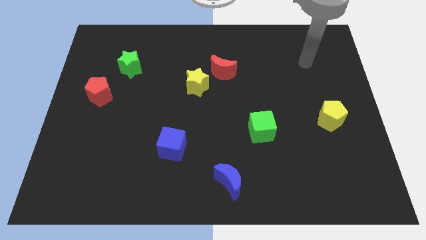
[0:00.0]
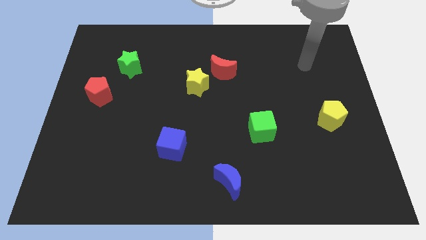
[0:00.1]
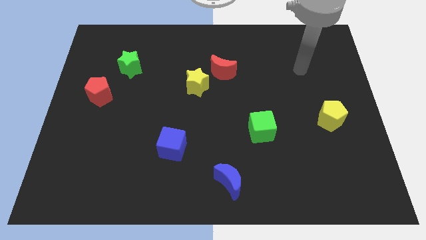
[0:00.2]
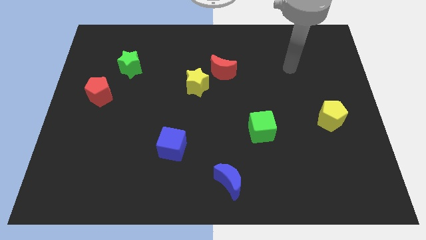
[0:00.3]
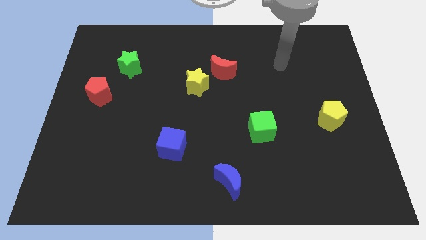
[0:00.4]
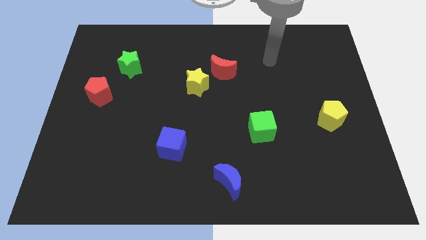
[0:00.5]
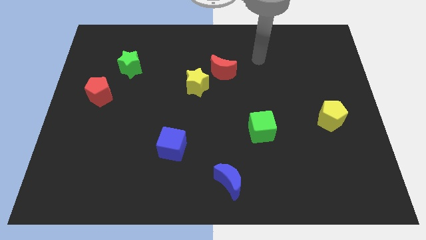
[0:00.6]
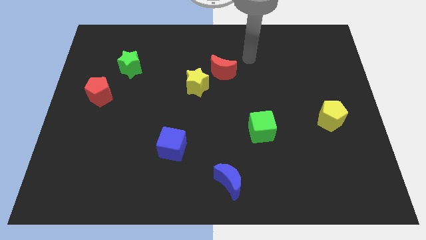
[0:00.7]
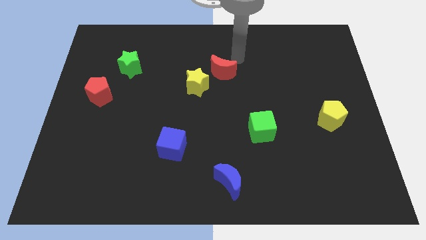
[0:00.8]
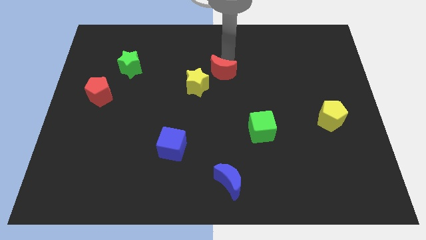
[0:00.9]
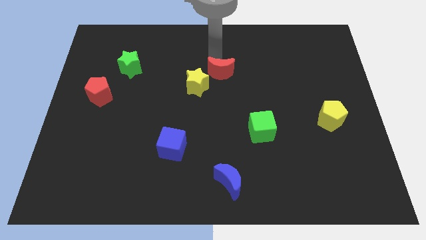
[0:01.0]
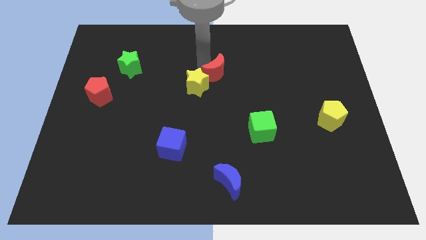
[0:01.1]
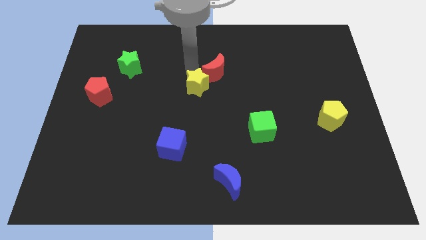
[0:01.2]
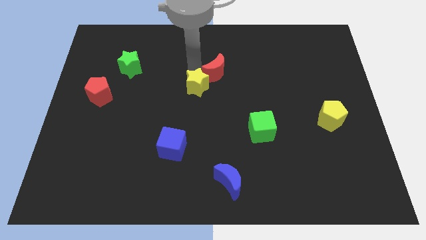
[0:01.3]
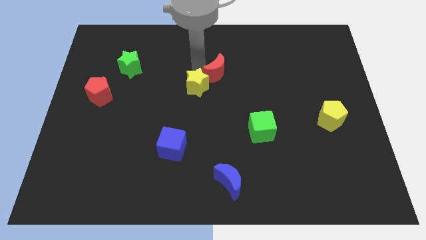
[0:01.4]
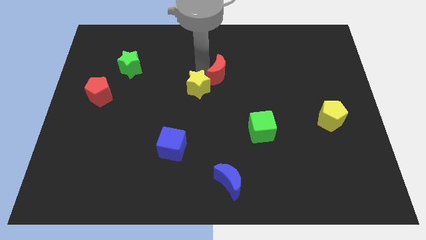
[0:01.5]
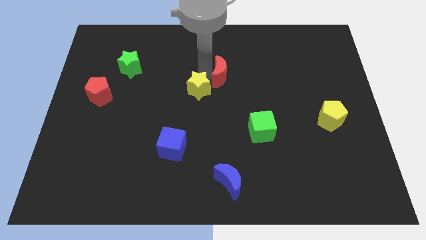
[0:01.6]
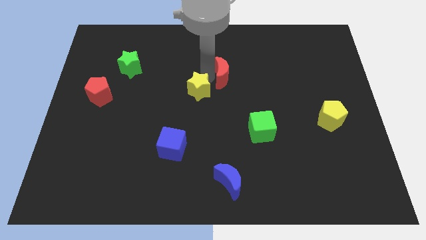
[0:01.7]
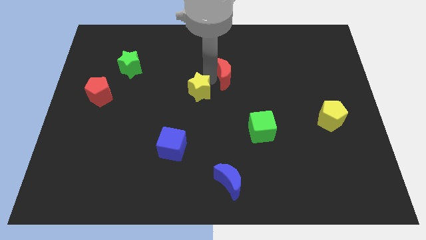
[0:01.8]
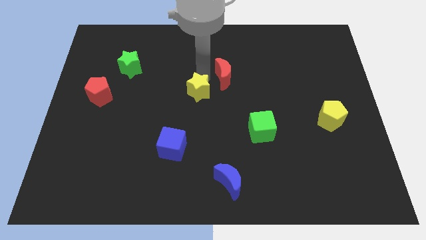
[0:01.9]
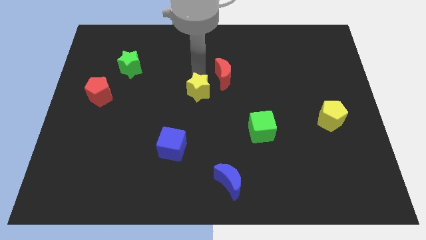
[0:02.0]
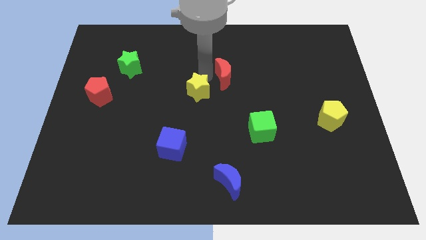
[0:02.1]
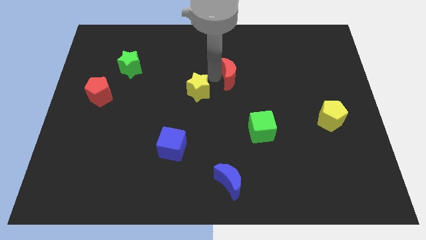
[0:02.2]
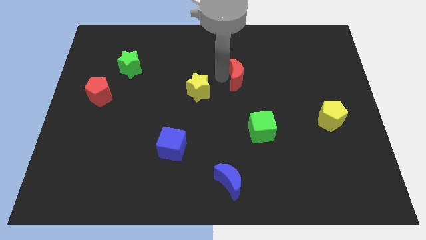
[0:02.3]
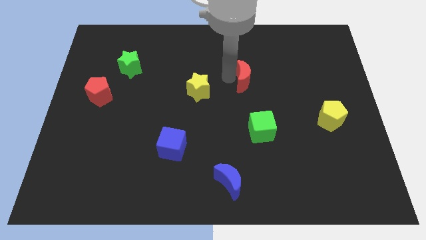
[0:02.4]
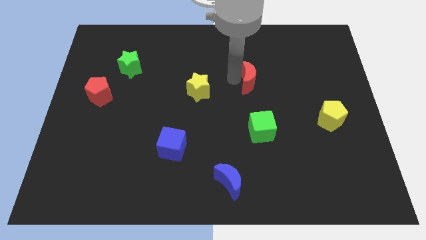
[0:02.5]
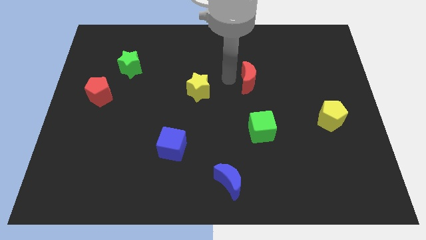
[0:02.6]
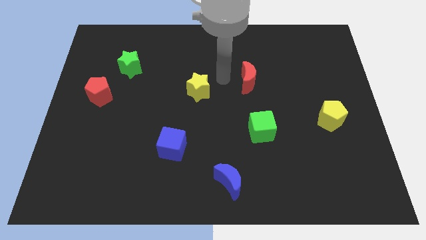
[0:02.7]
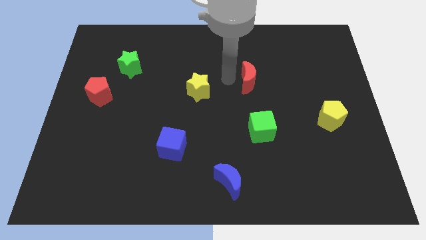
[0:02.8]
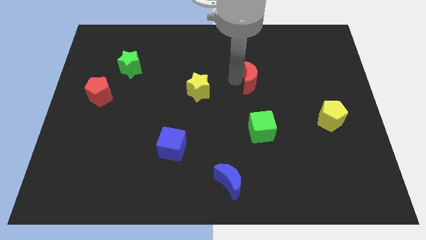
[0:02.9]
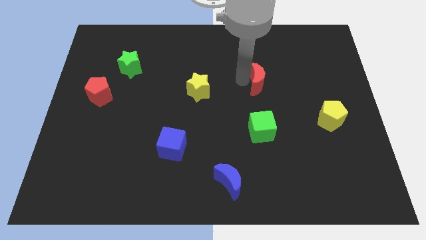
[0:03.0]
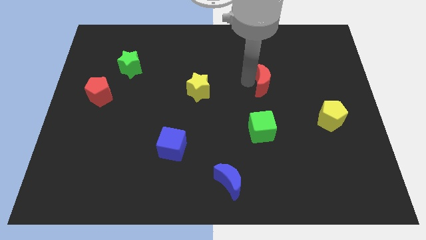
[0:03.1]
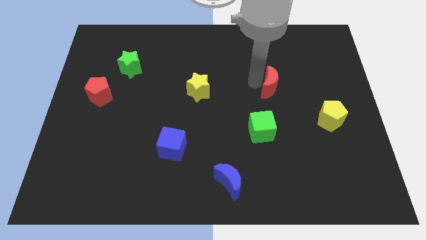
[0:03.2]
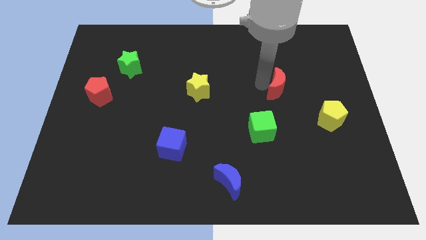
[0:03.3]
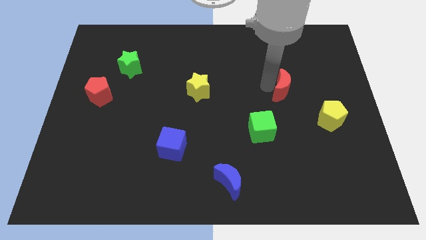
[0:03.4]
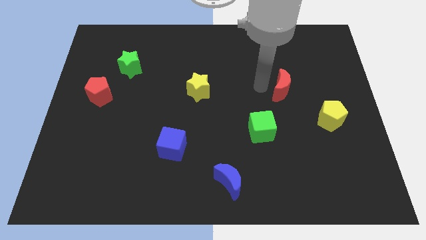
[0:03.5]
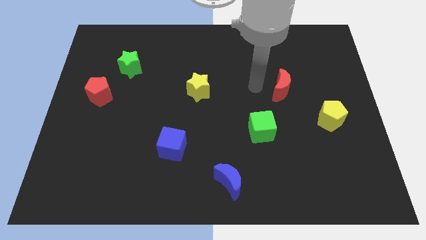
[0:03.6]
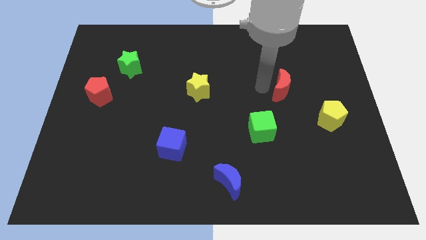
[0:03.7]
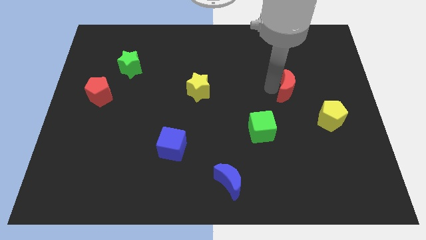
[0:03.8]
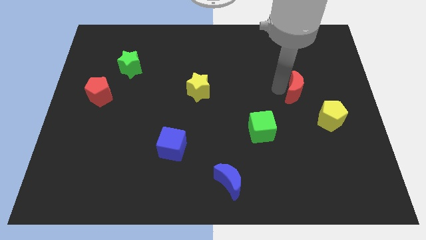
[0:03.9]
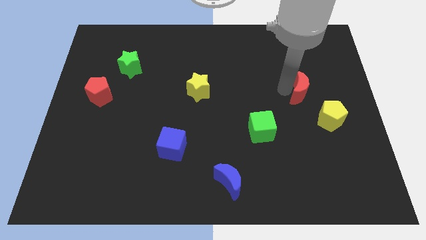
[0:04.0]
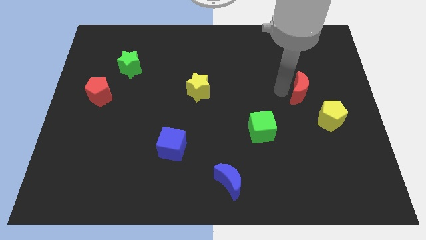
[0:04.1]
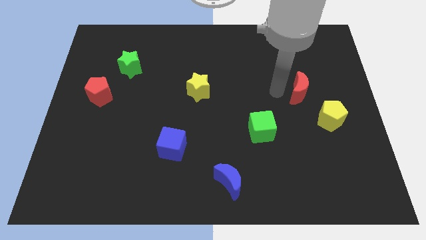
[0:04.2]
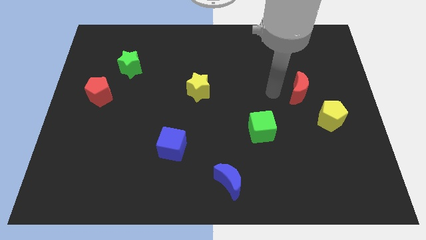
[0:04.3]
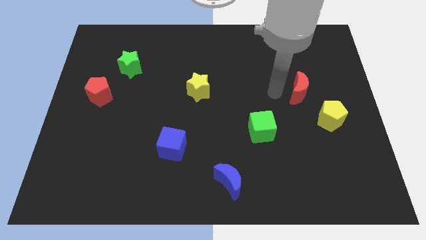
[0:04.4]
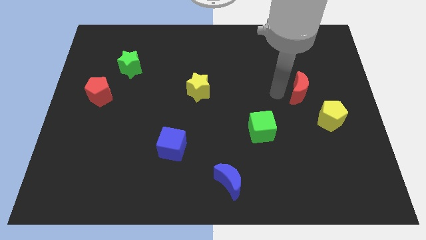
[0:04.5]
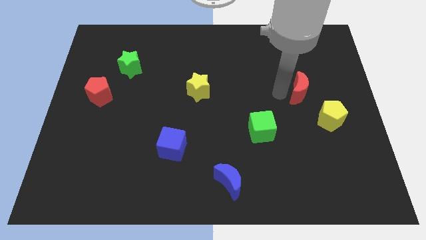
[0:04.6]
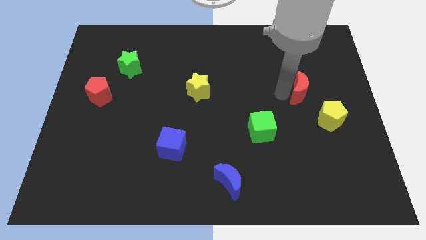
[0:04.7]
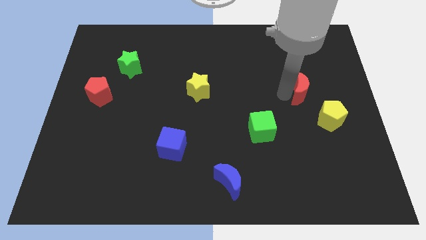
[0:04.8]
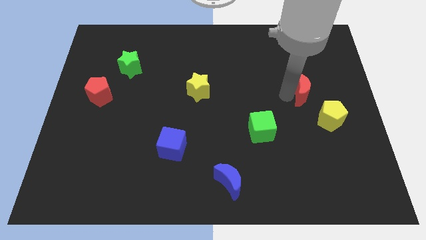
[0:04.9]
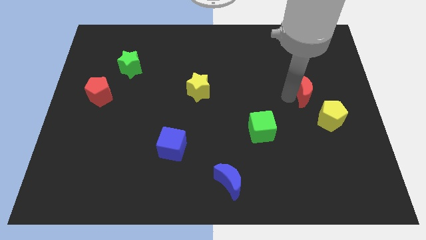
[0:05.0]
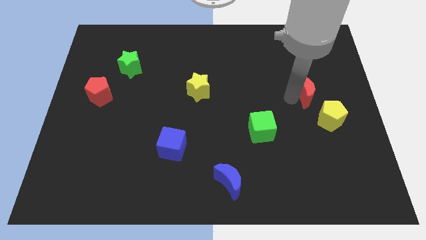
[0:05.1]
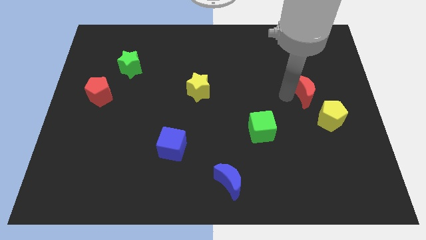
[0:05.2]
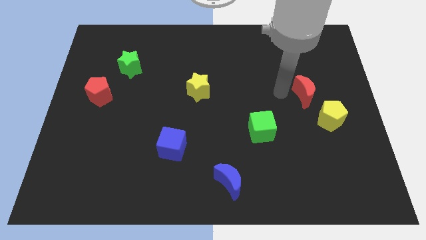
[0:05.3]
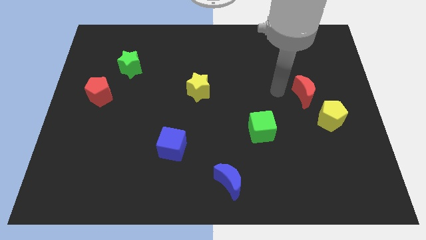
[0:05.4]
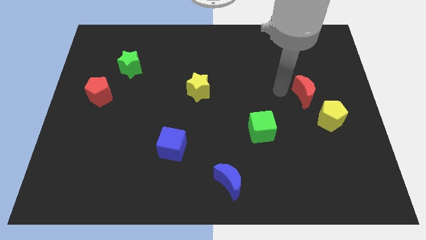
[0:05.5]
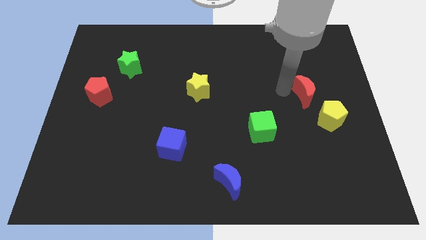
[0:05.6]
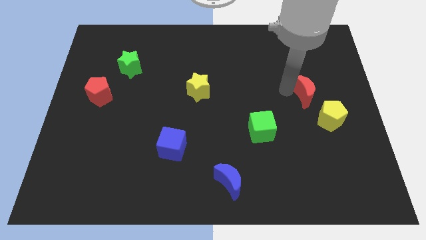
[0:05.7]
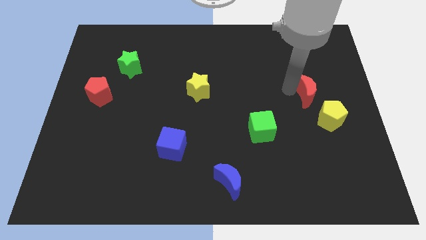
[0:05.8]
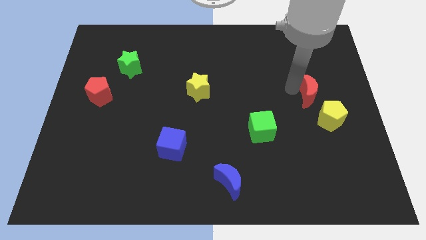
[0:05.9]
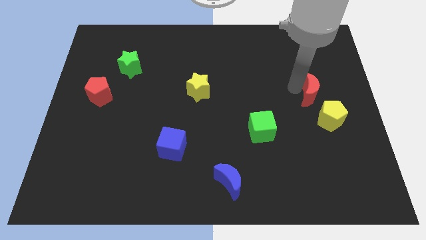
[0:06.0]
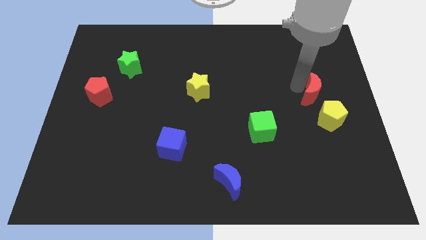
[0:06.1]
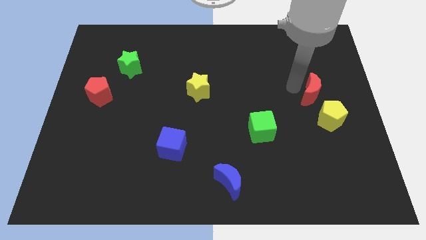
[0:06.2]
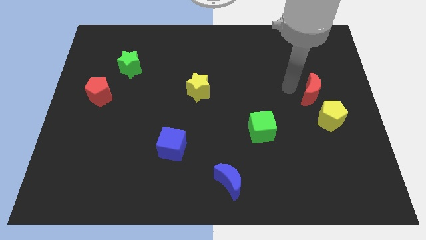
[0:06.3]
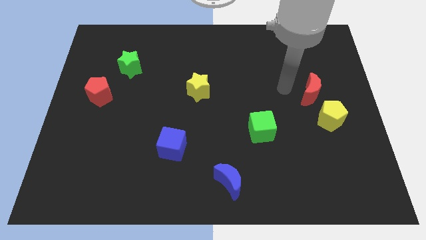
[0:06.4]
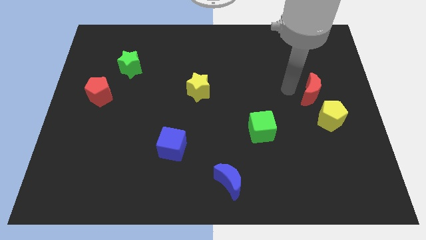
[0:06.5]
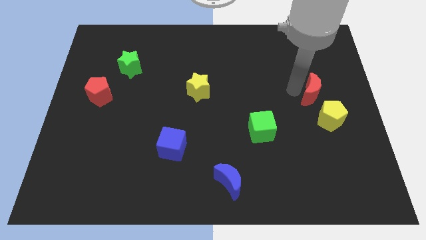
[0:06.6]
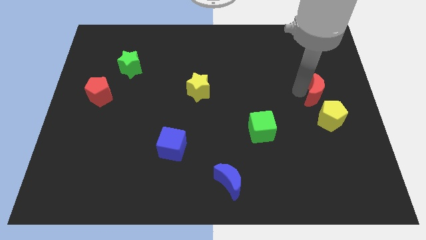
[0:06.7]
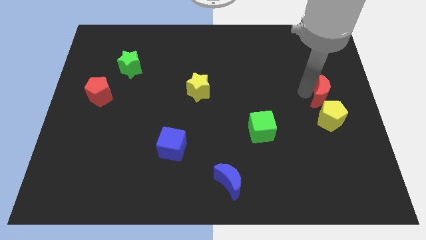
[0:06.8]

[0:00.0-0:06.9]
put the red moon to the right side
